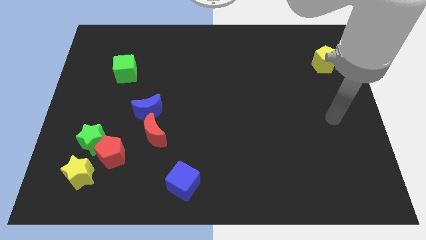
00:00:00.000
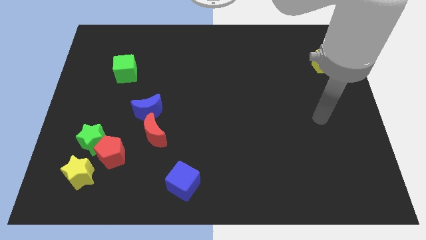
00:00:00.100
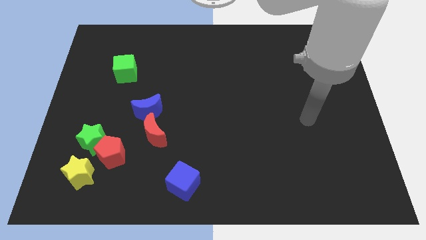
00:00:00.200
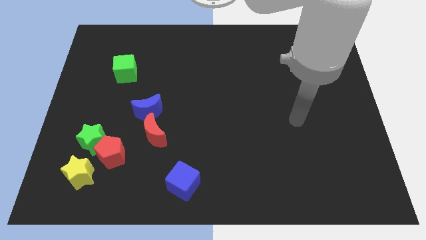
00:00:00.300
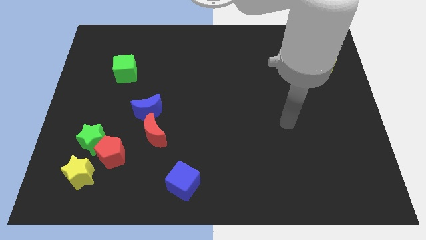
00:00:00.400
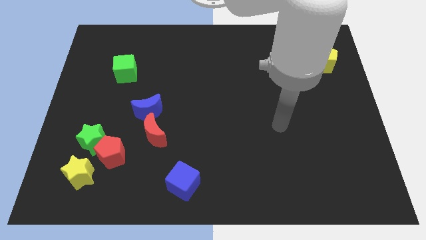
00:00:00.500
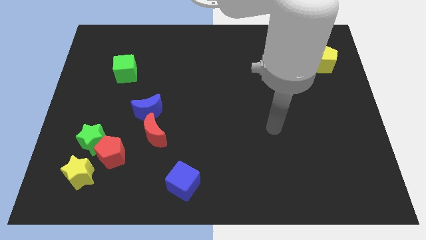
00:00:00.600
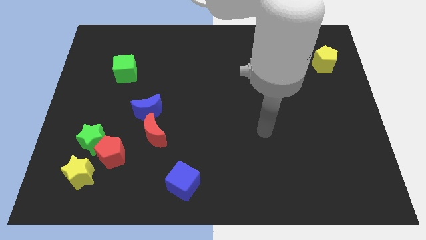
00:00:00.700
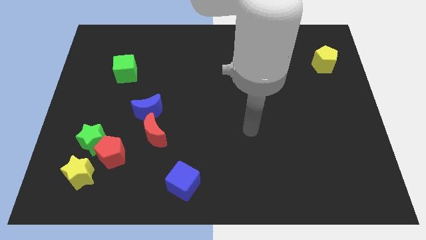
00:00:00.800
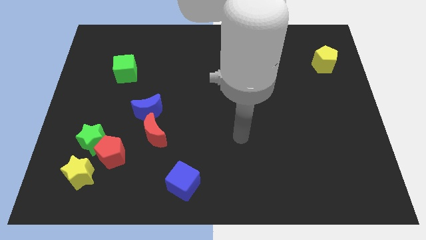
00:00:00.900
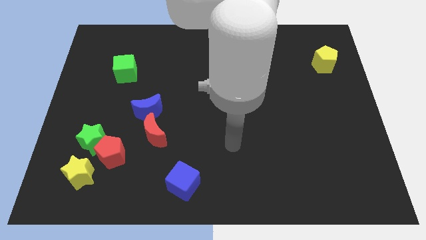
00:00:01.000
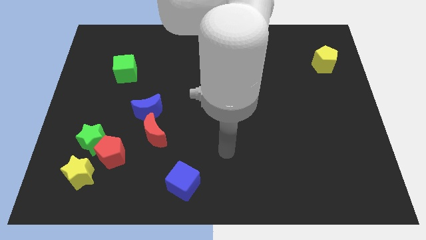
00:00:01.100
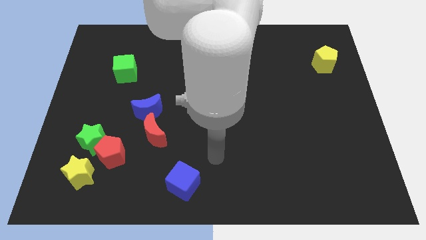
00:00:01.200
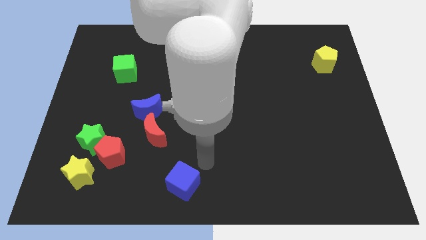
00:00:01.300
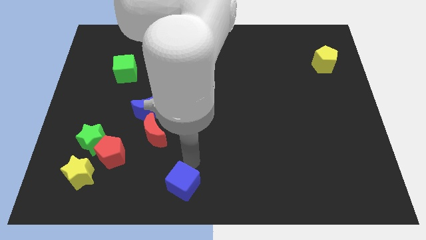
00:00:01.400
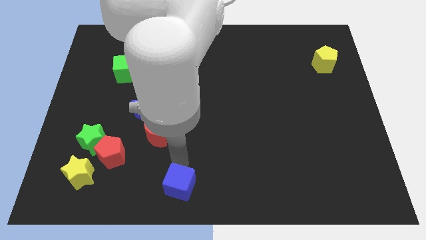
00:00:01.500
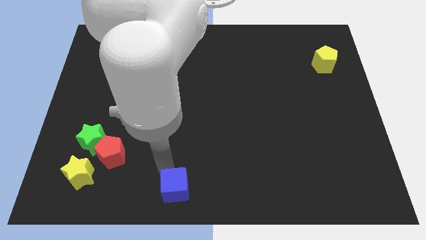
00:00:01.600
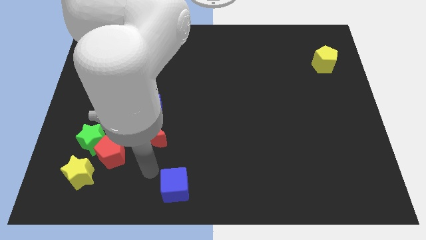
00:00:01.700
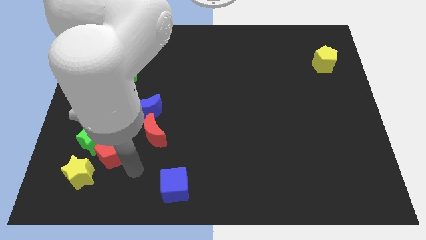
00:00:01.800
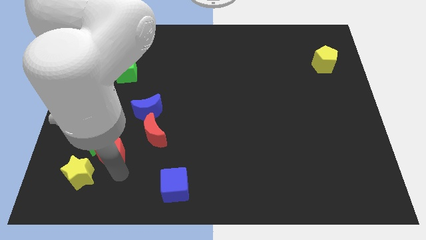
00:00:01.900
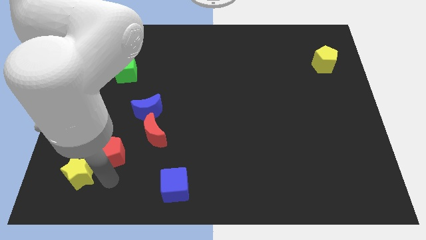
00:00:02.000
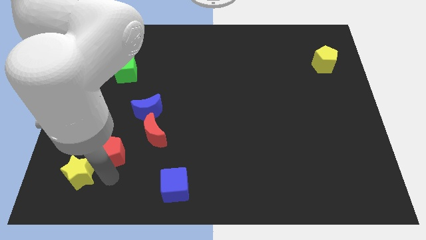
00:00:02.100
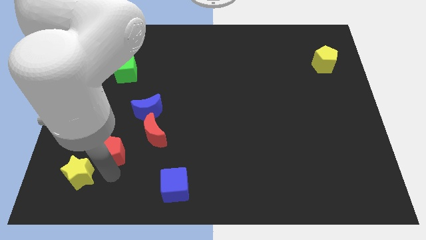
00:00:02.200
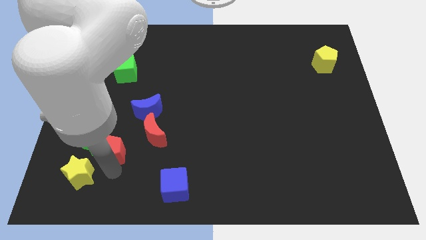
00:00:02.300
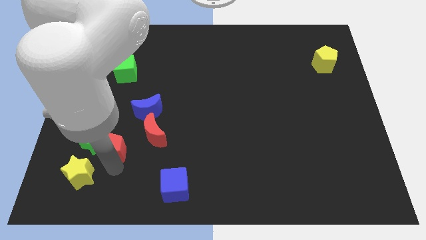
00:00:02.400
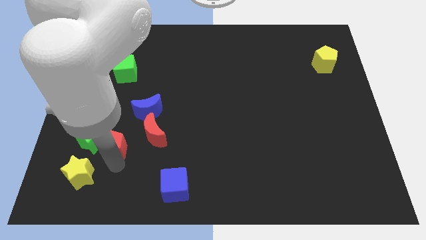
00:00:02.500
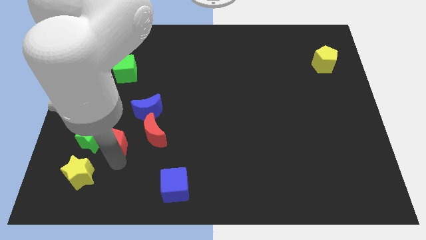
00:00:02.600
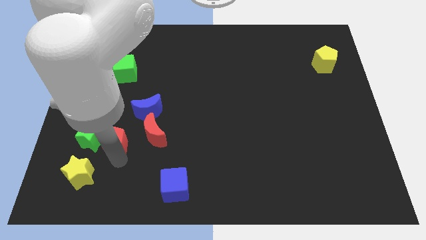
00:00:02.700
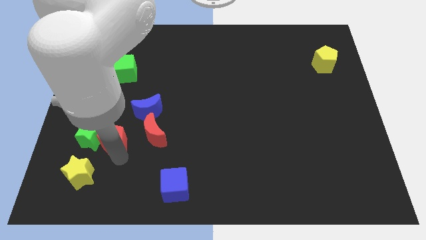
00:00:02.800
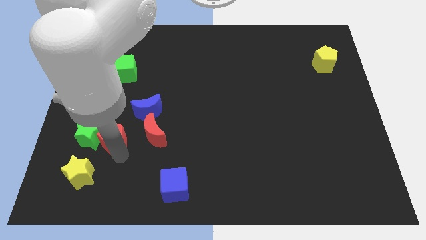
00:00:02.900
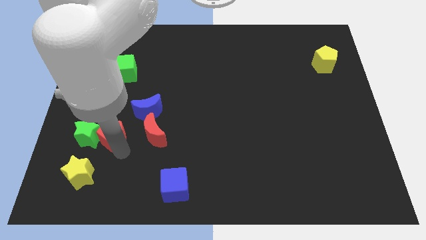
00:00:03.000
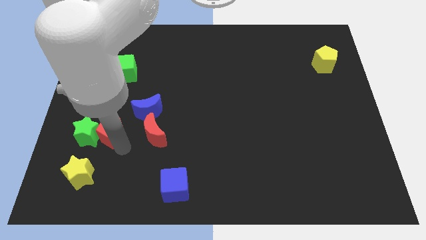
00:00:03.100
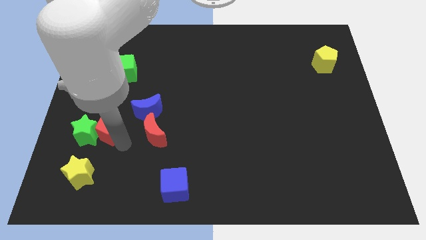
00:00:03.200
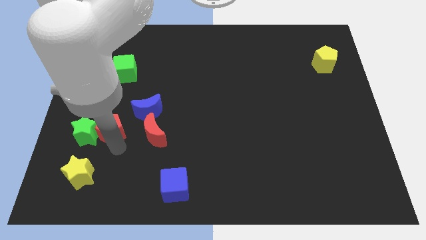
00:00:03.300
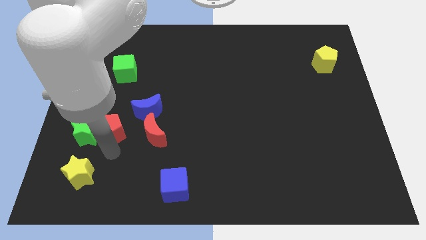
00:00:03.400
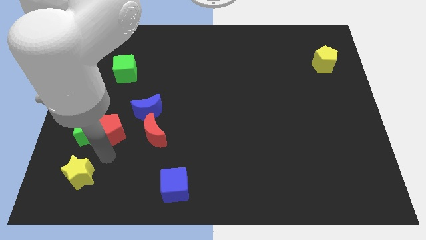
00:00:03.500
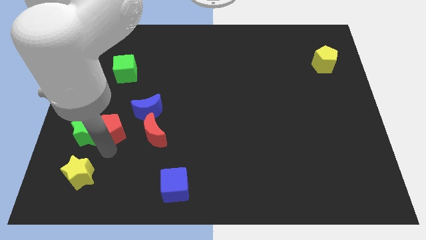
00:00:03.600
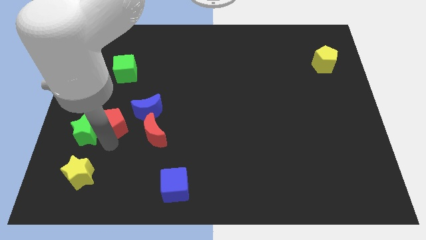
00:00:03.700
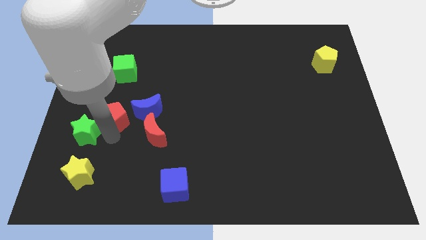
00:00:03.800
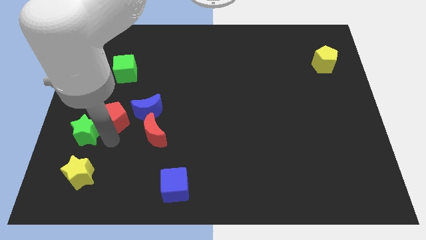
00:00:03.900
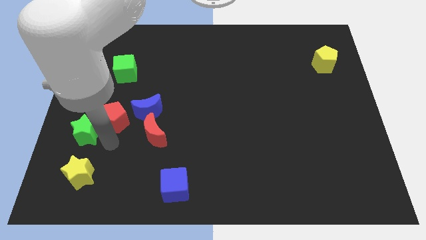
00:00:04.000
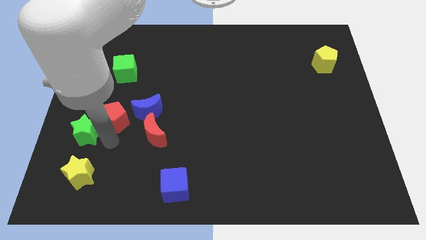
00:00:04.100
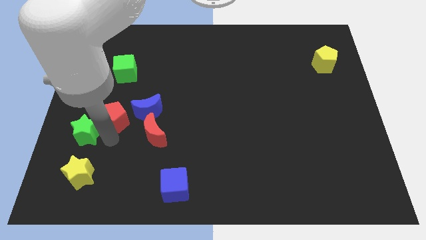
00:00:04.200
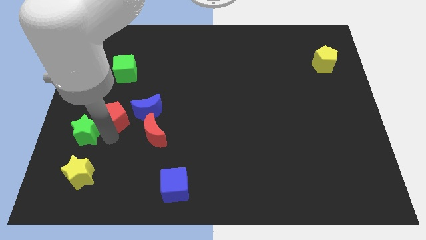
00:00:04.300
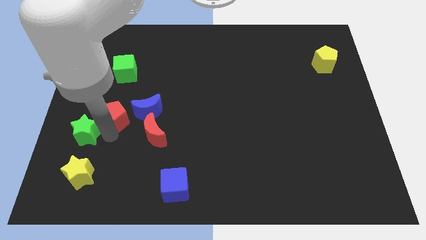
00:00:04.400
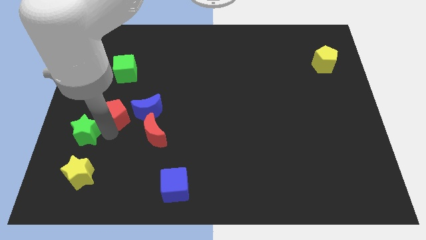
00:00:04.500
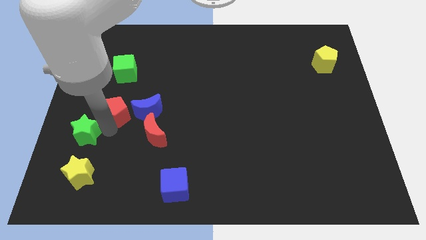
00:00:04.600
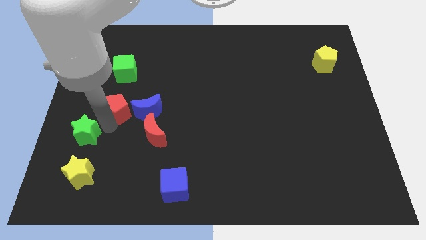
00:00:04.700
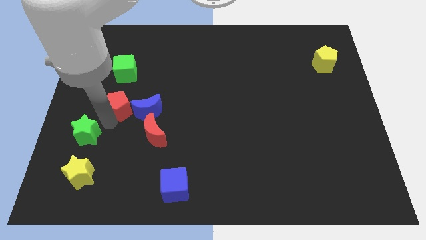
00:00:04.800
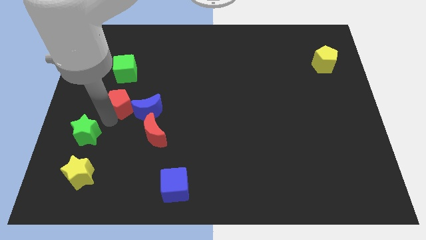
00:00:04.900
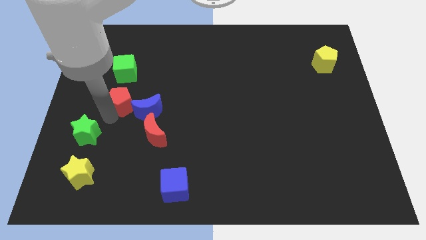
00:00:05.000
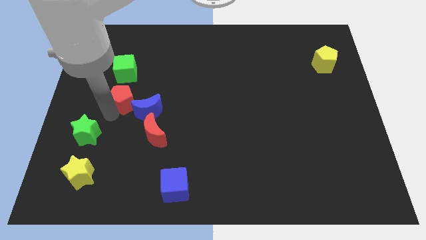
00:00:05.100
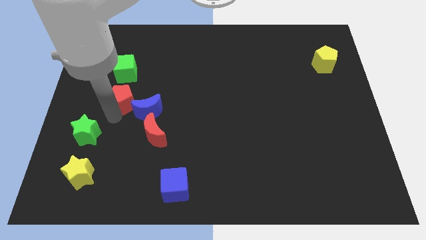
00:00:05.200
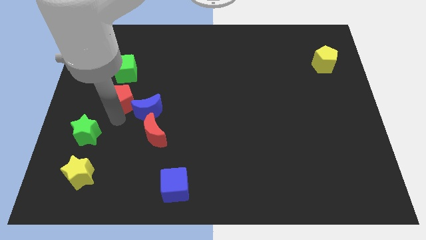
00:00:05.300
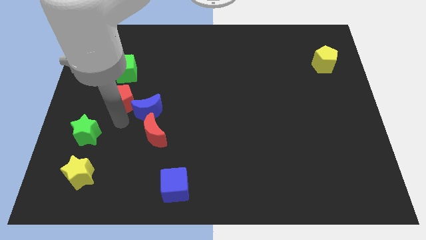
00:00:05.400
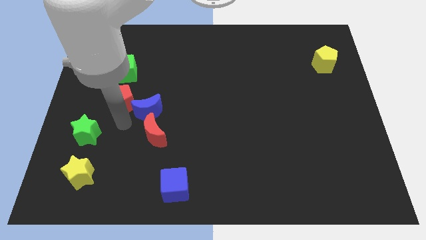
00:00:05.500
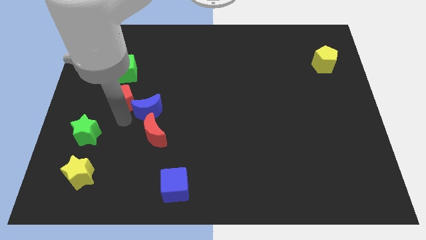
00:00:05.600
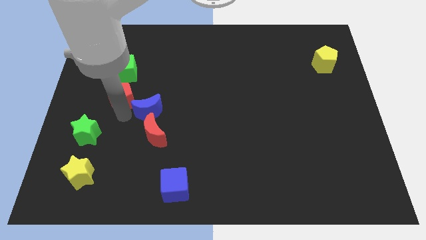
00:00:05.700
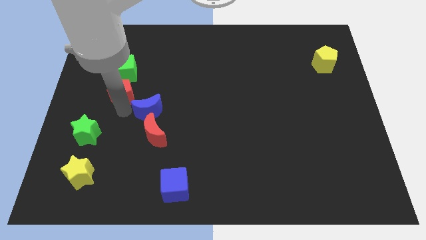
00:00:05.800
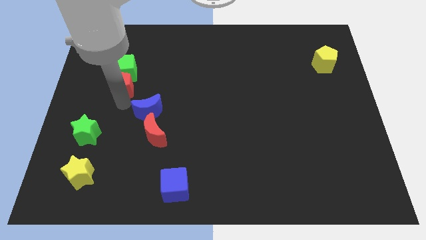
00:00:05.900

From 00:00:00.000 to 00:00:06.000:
put the red pentagon towards the green cube

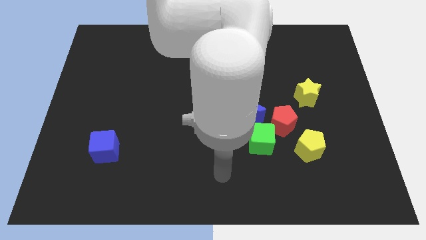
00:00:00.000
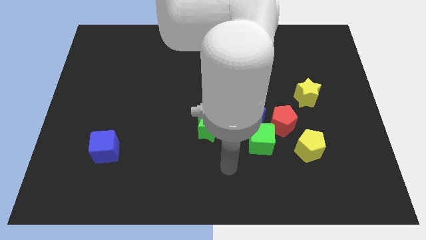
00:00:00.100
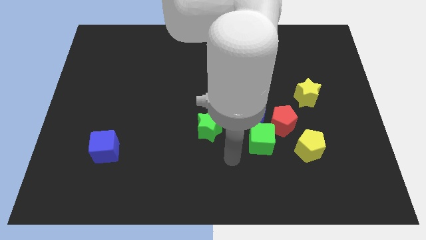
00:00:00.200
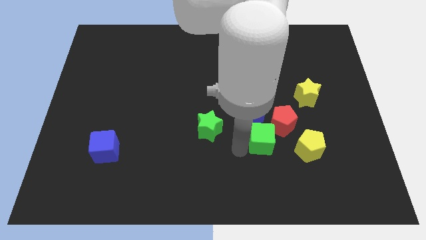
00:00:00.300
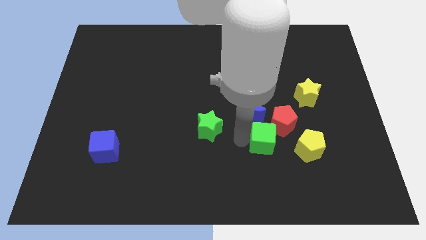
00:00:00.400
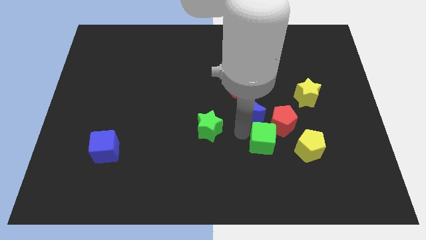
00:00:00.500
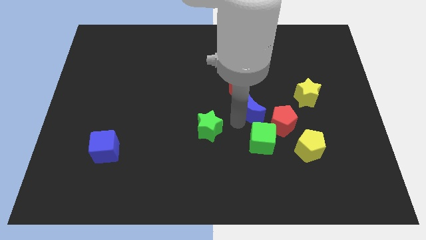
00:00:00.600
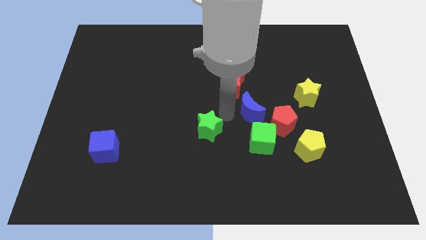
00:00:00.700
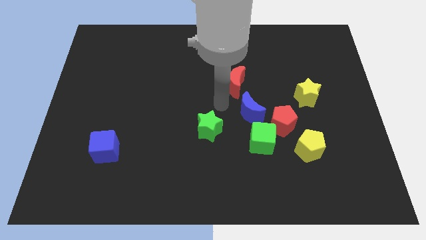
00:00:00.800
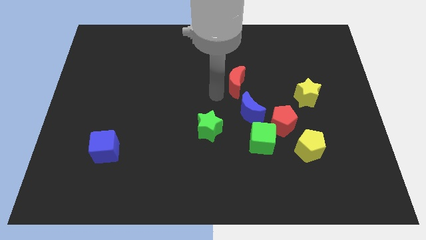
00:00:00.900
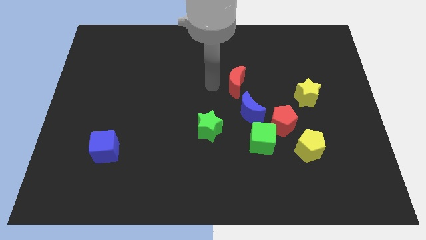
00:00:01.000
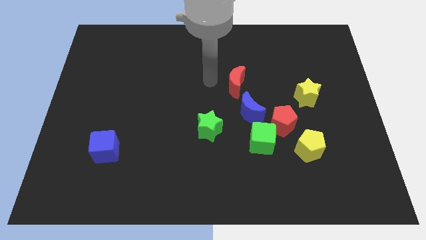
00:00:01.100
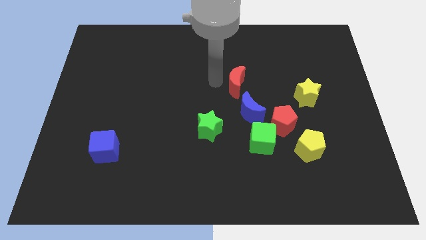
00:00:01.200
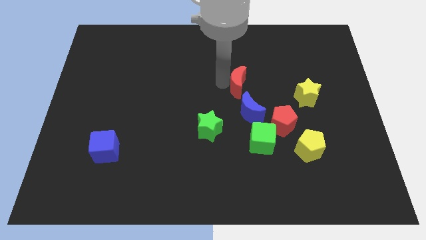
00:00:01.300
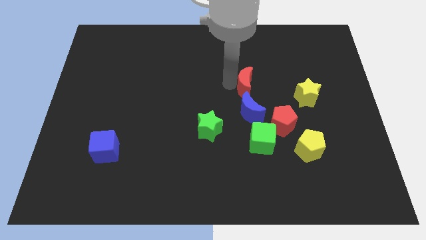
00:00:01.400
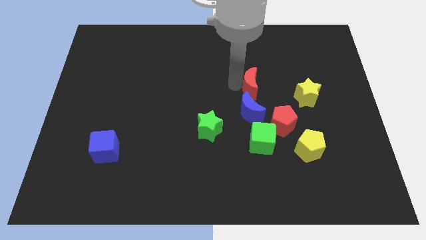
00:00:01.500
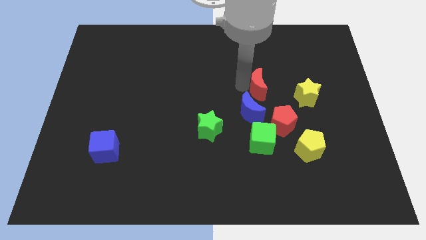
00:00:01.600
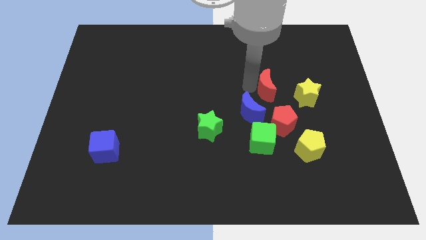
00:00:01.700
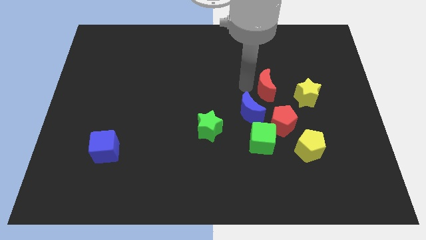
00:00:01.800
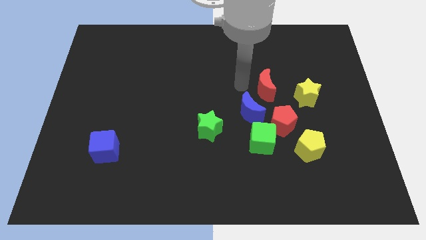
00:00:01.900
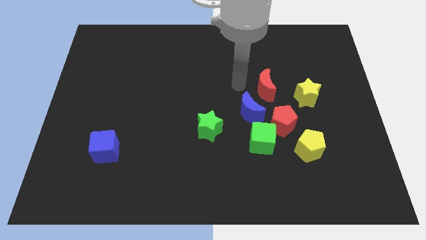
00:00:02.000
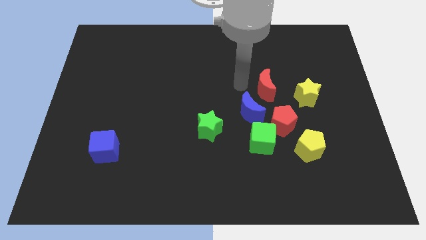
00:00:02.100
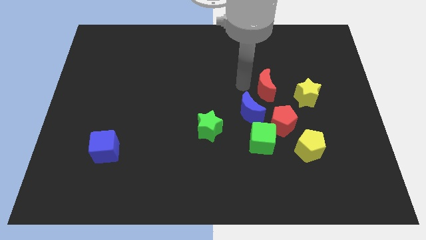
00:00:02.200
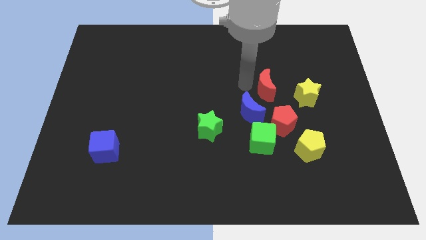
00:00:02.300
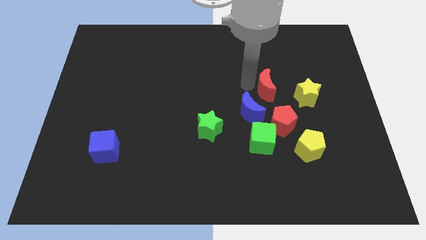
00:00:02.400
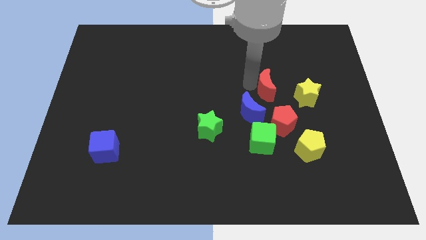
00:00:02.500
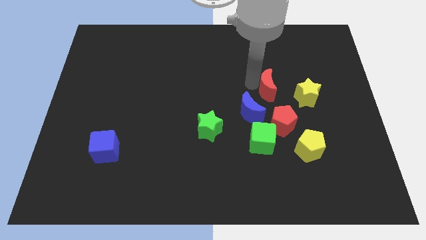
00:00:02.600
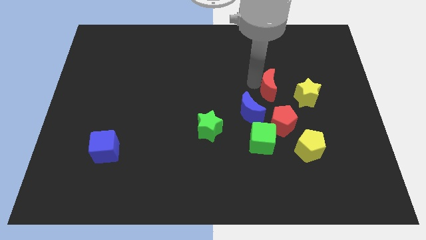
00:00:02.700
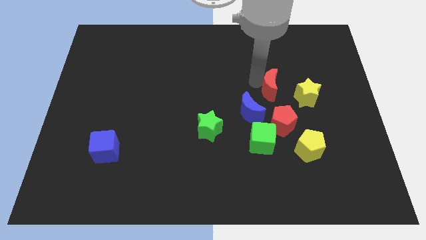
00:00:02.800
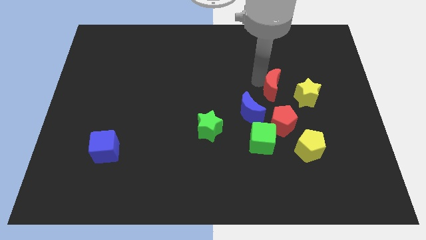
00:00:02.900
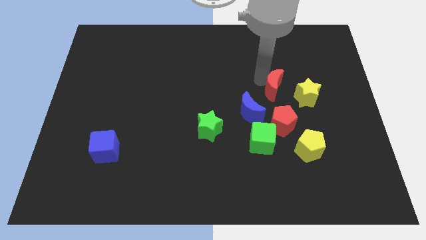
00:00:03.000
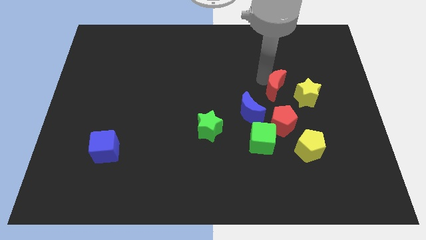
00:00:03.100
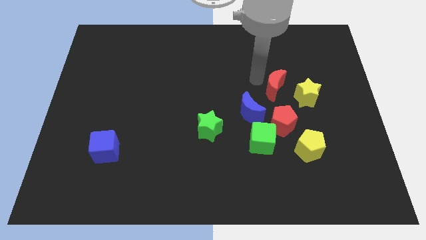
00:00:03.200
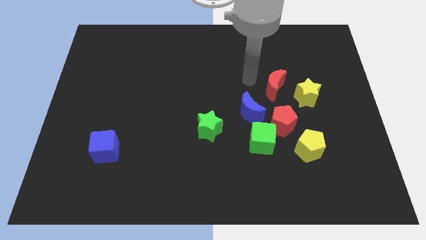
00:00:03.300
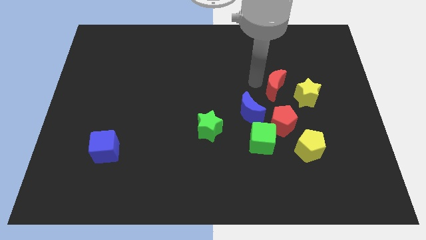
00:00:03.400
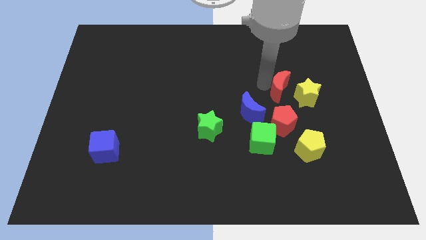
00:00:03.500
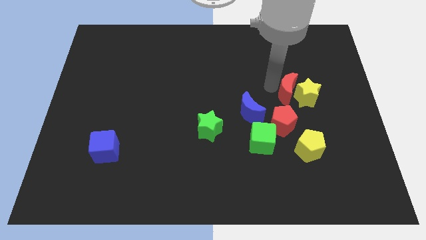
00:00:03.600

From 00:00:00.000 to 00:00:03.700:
put the red moon next to the yellow star
